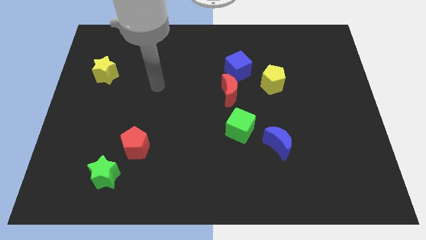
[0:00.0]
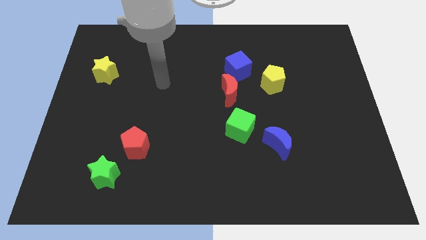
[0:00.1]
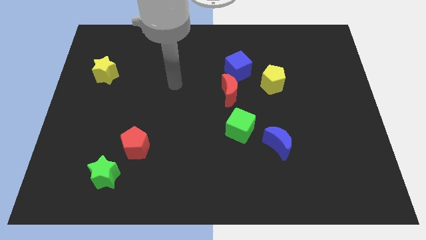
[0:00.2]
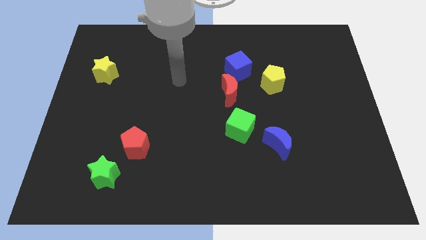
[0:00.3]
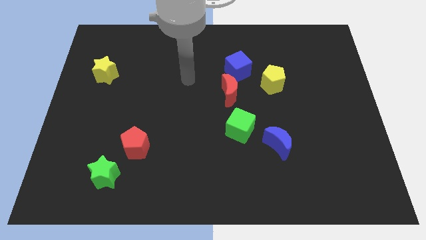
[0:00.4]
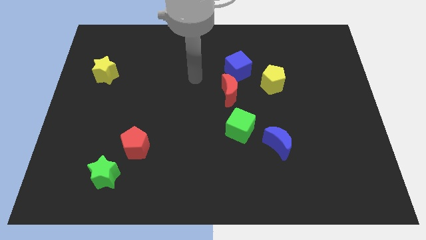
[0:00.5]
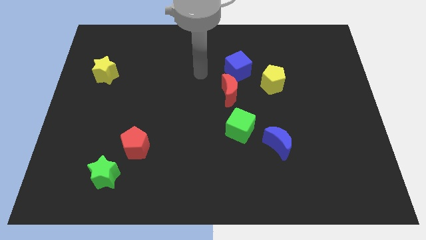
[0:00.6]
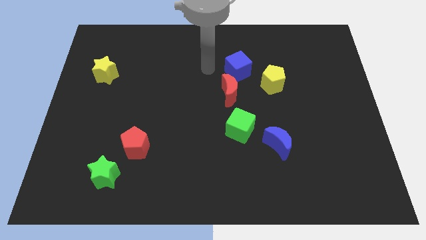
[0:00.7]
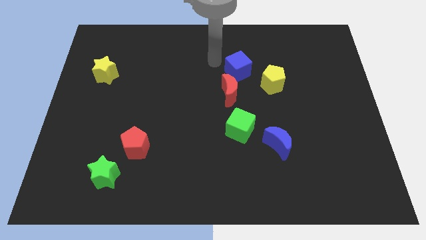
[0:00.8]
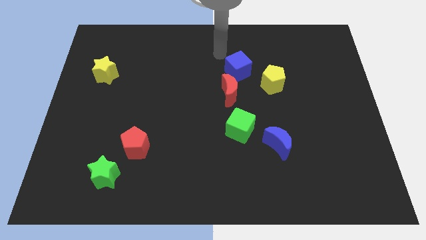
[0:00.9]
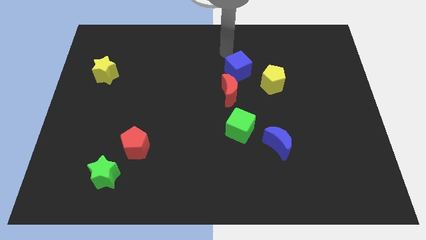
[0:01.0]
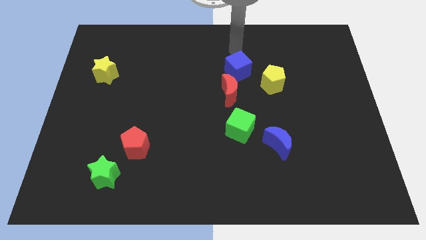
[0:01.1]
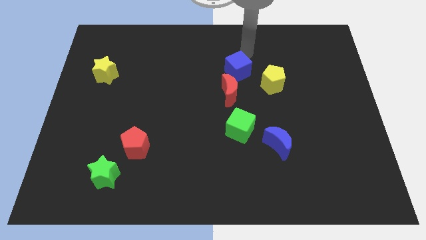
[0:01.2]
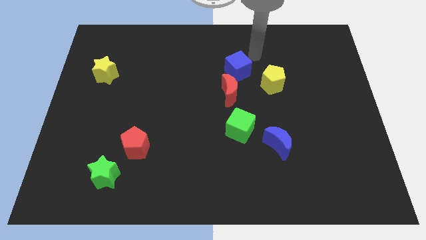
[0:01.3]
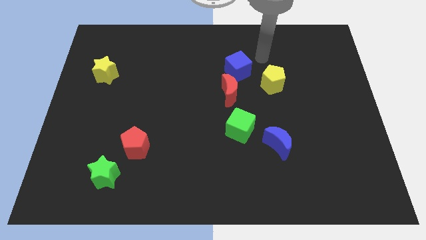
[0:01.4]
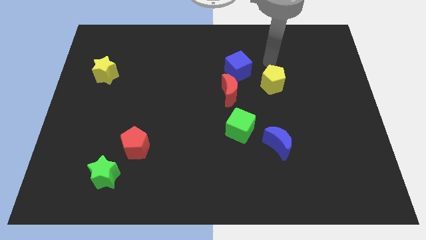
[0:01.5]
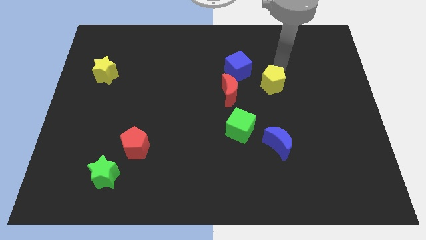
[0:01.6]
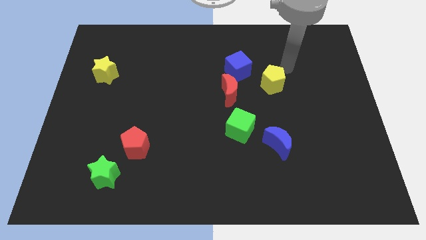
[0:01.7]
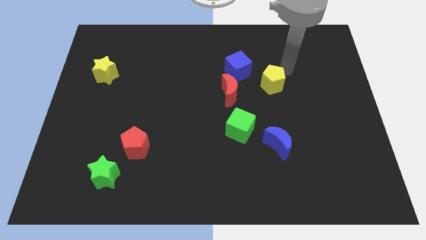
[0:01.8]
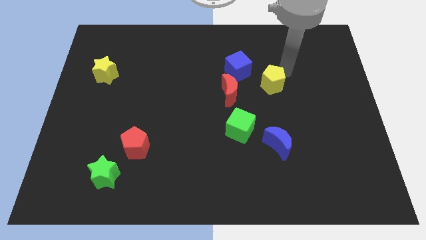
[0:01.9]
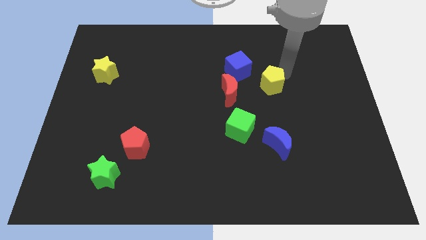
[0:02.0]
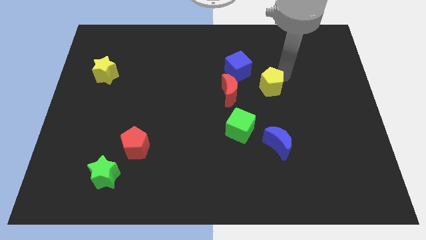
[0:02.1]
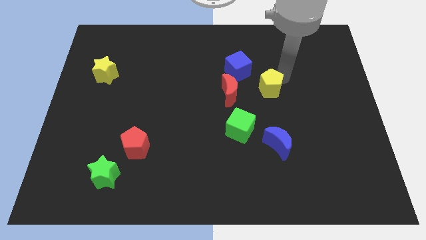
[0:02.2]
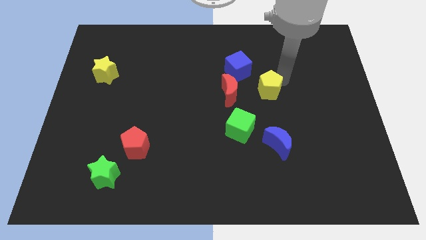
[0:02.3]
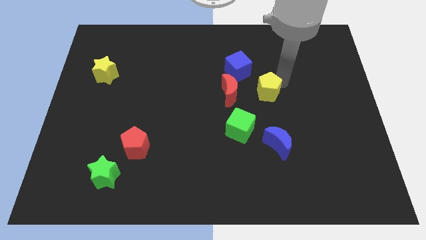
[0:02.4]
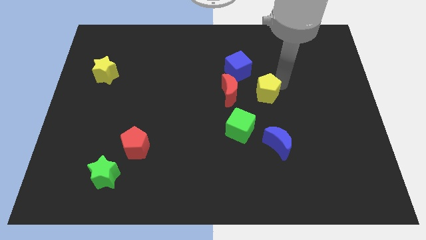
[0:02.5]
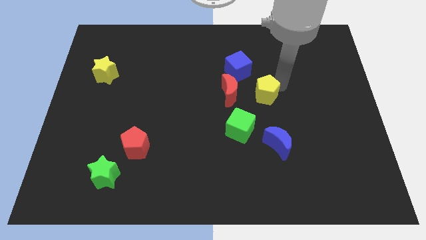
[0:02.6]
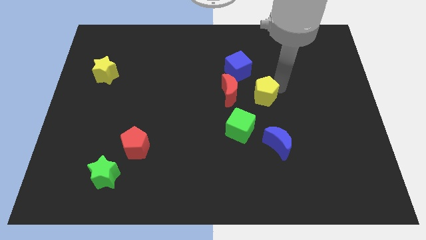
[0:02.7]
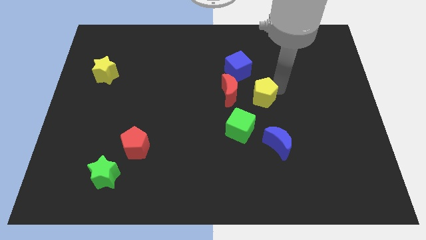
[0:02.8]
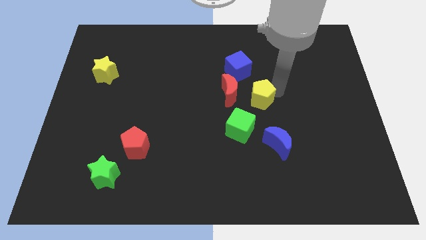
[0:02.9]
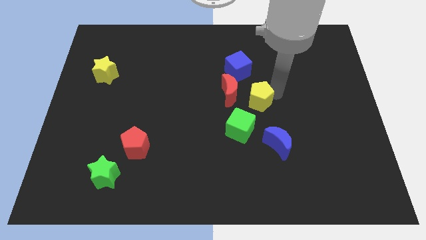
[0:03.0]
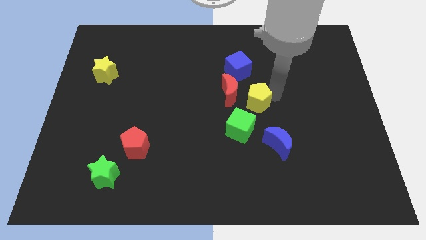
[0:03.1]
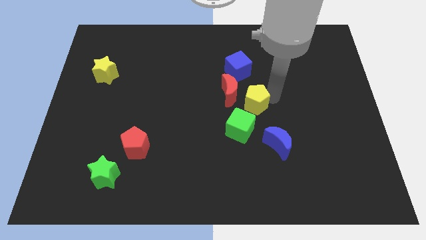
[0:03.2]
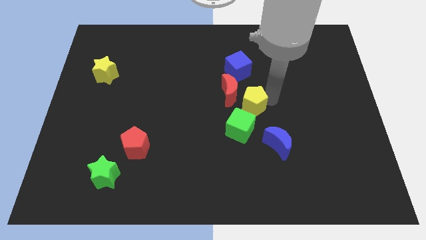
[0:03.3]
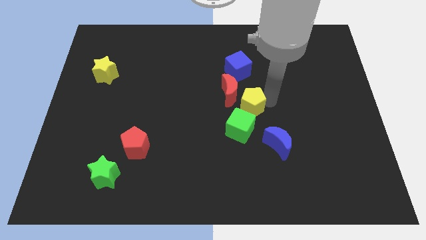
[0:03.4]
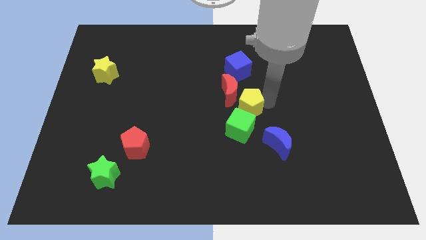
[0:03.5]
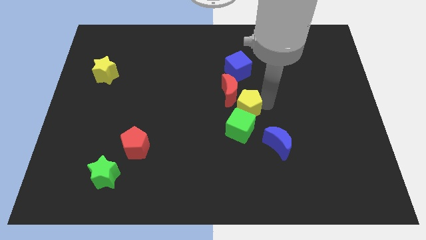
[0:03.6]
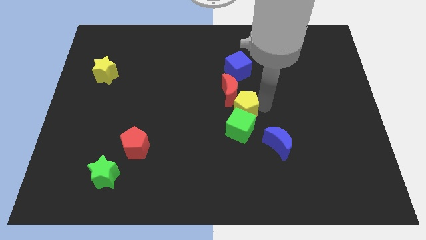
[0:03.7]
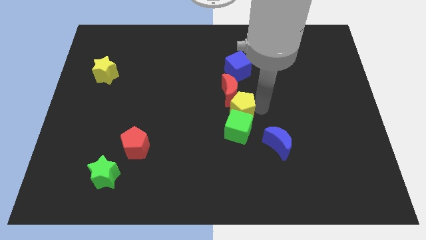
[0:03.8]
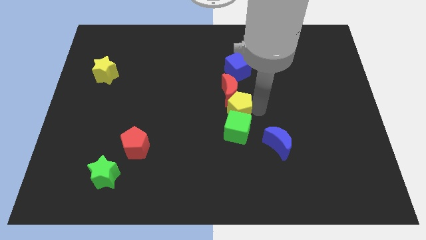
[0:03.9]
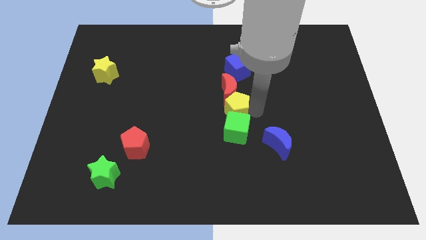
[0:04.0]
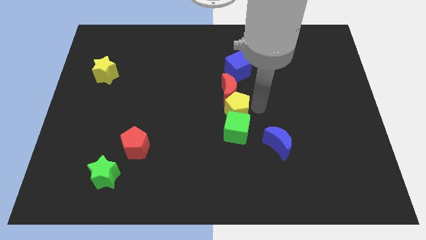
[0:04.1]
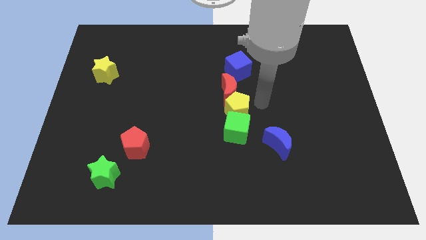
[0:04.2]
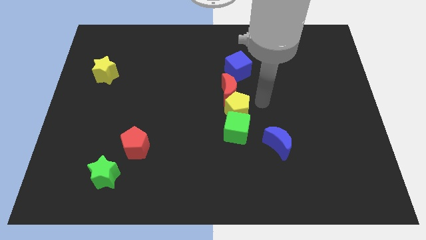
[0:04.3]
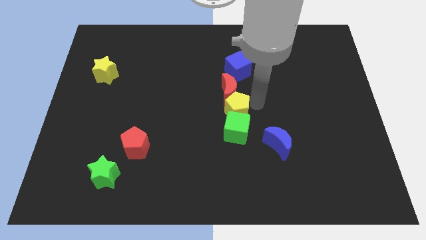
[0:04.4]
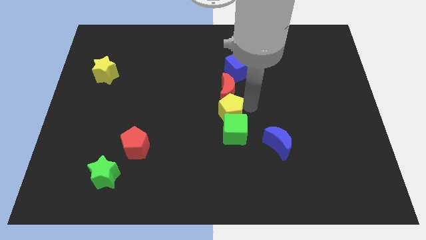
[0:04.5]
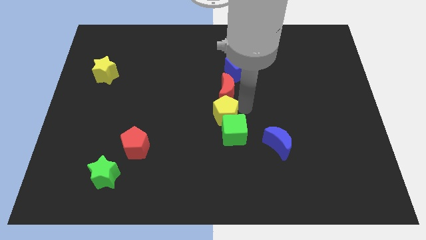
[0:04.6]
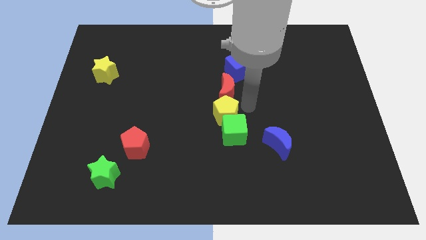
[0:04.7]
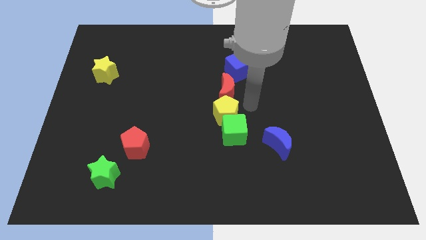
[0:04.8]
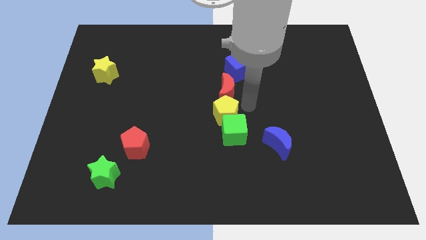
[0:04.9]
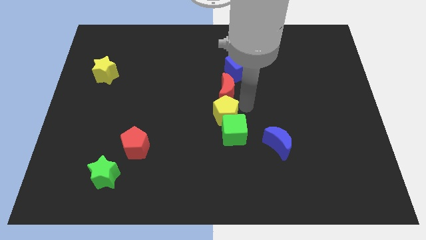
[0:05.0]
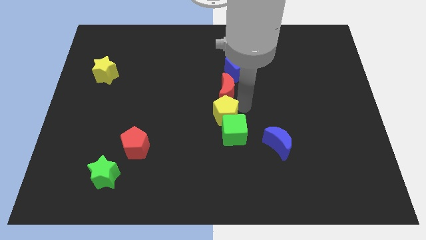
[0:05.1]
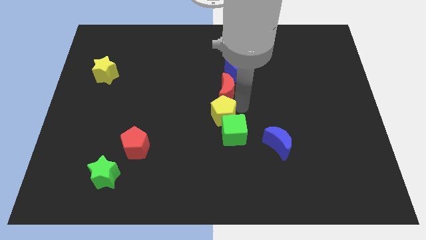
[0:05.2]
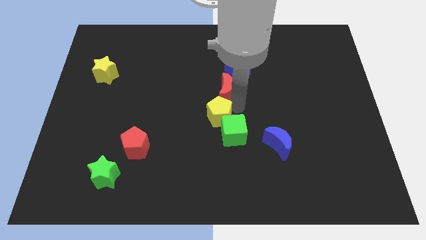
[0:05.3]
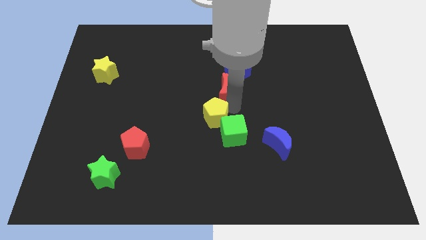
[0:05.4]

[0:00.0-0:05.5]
push the yellow pentagon to the left side of the green cube

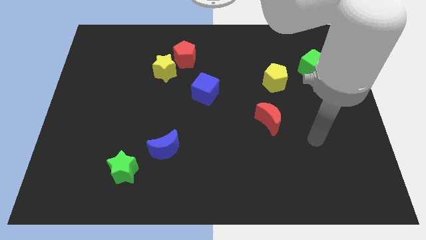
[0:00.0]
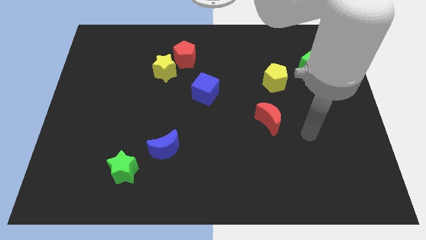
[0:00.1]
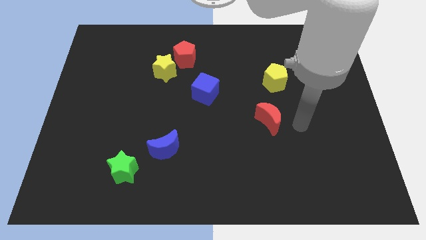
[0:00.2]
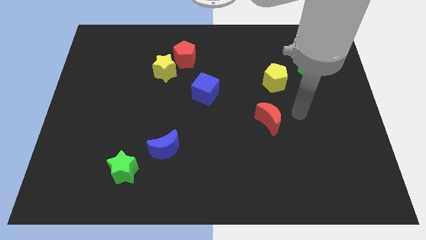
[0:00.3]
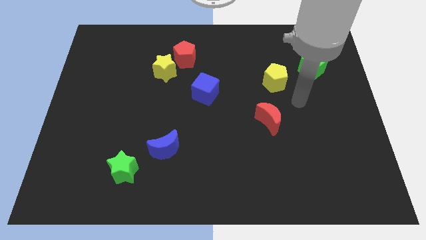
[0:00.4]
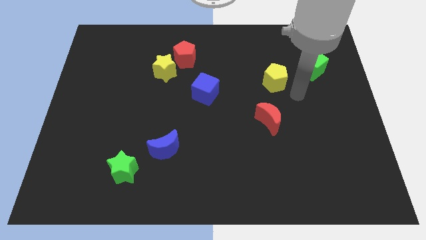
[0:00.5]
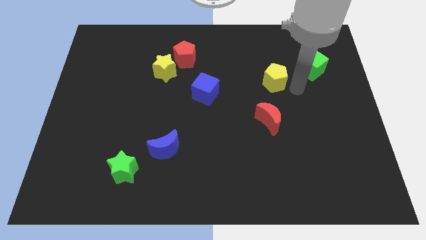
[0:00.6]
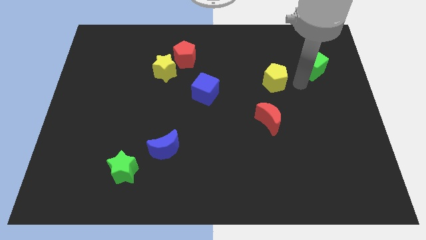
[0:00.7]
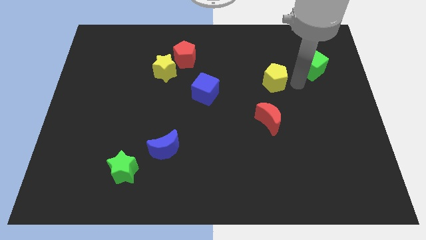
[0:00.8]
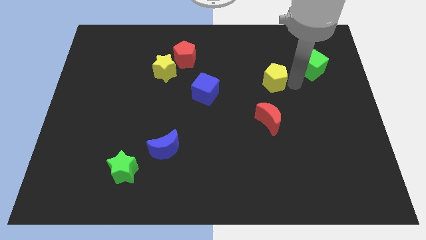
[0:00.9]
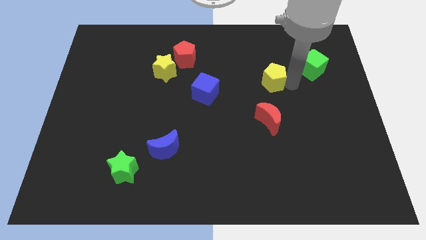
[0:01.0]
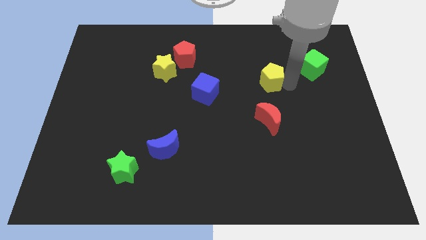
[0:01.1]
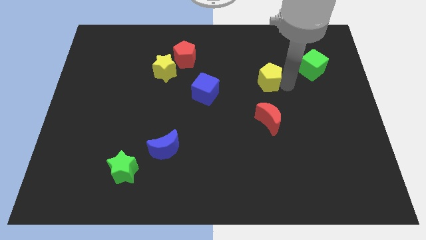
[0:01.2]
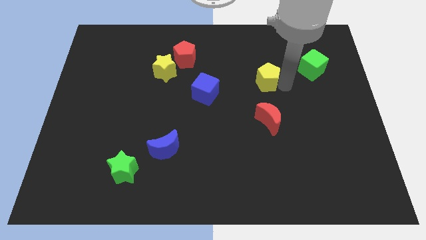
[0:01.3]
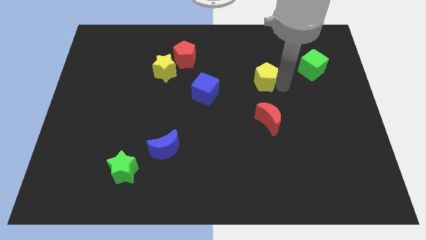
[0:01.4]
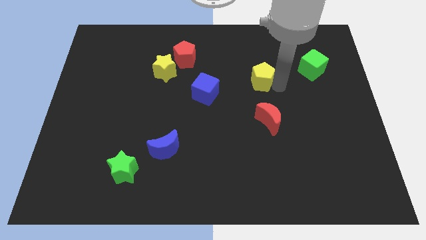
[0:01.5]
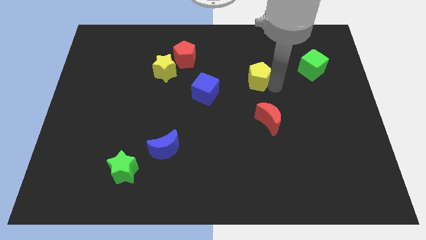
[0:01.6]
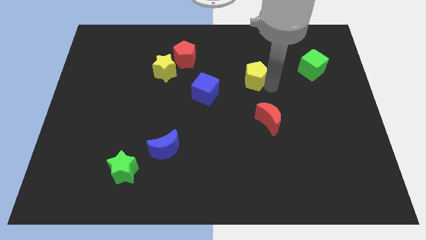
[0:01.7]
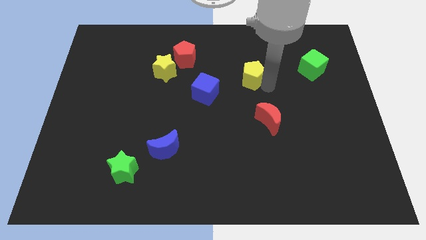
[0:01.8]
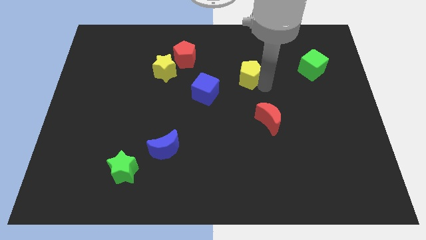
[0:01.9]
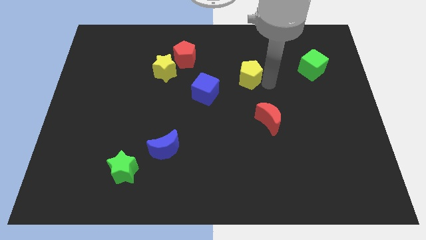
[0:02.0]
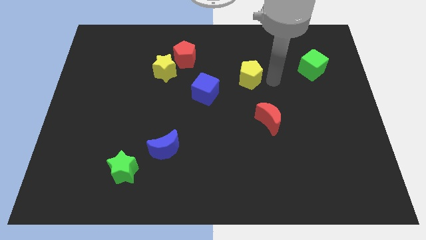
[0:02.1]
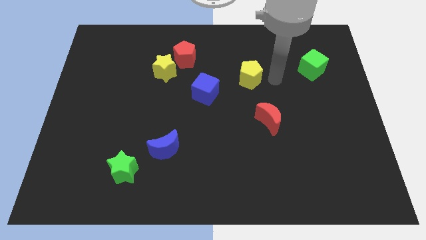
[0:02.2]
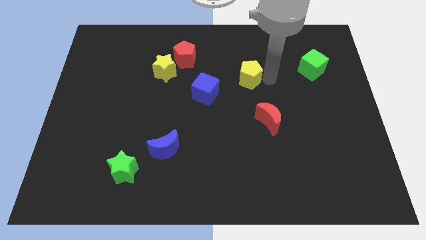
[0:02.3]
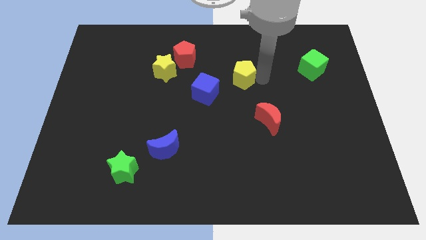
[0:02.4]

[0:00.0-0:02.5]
push the yellow pentagon to the top right of the blue cube
